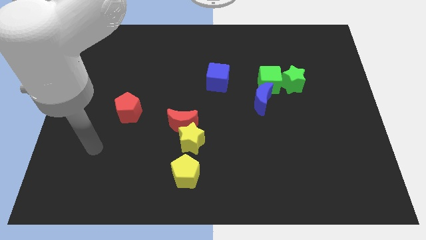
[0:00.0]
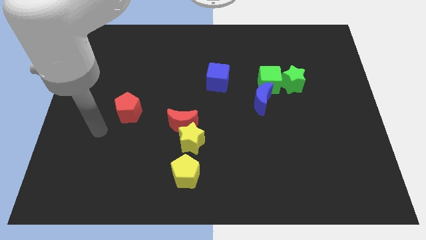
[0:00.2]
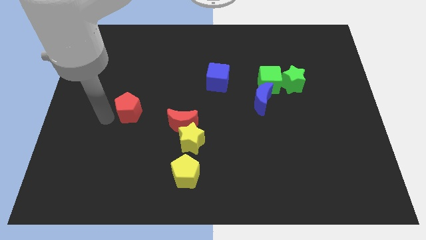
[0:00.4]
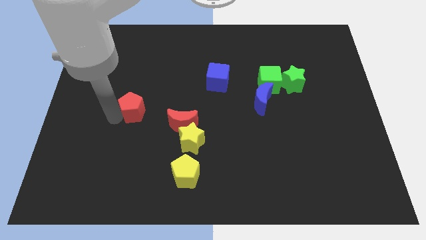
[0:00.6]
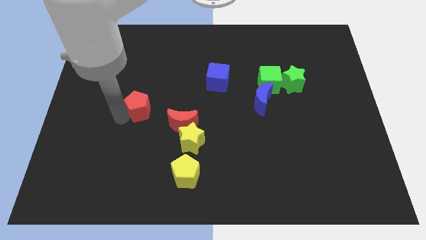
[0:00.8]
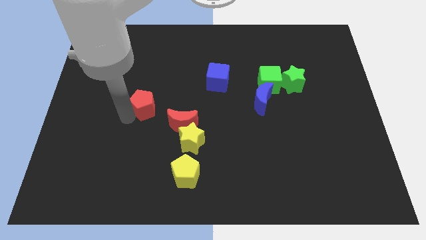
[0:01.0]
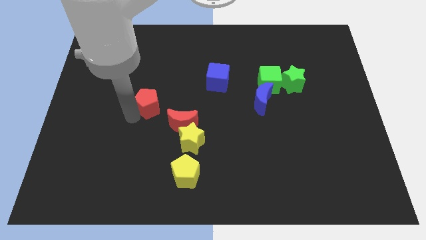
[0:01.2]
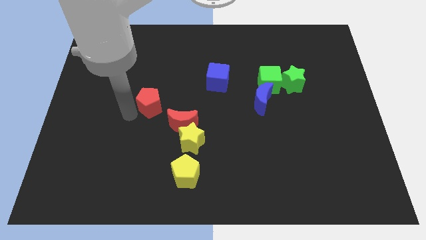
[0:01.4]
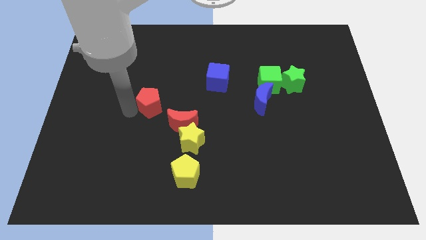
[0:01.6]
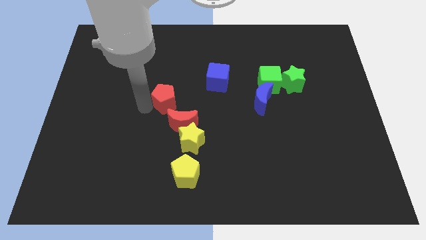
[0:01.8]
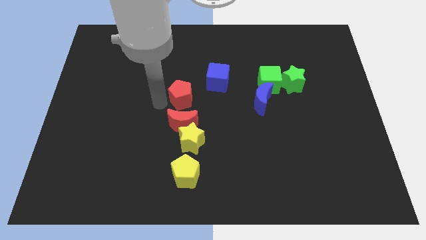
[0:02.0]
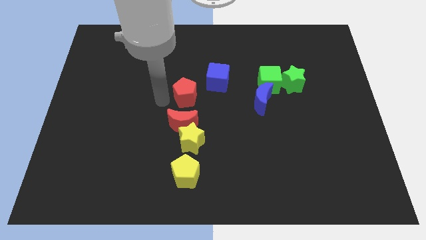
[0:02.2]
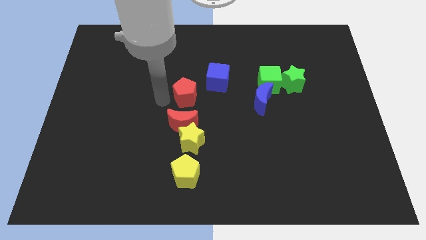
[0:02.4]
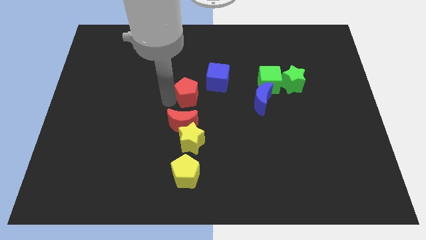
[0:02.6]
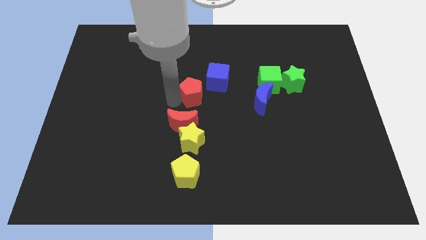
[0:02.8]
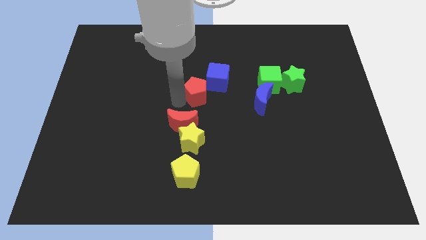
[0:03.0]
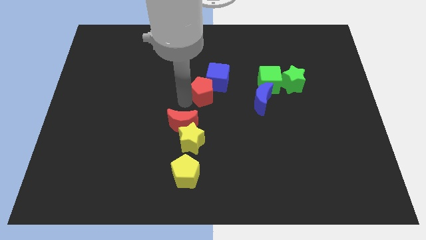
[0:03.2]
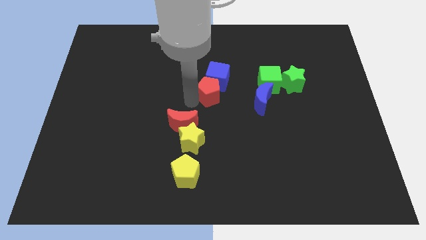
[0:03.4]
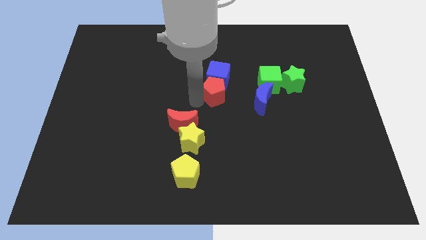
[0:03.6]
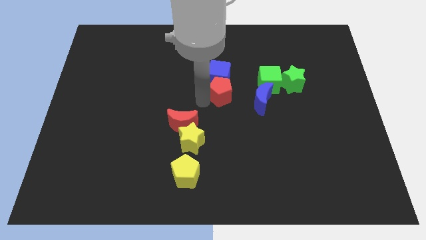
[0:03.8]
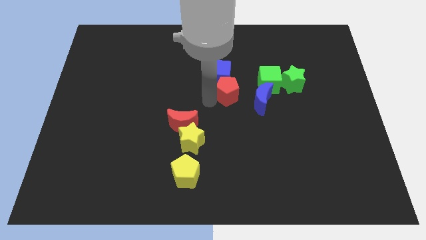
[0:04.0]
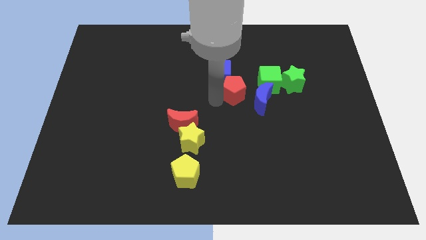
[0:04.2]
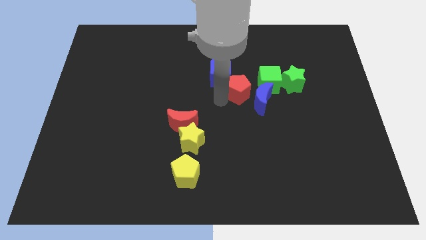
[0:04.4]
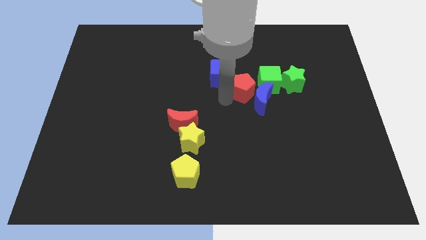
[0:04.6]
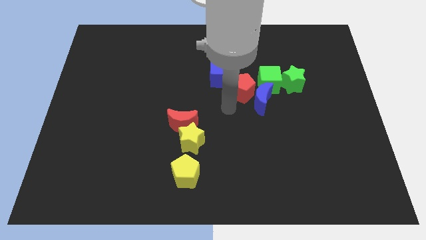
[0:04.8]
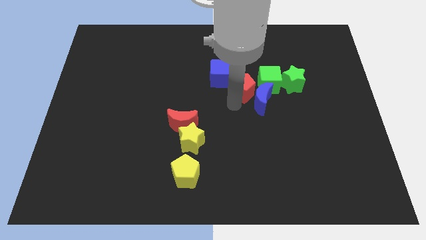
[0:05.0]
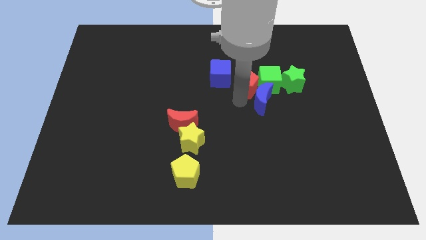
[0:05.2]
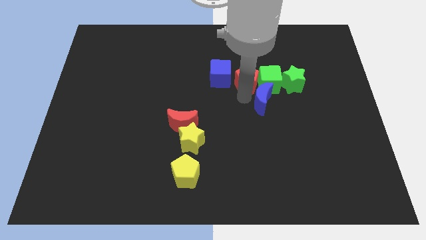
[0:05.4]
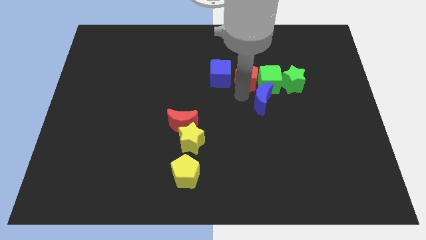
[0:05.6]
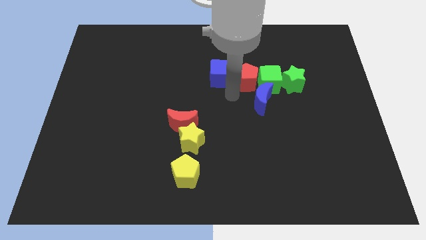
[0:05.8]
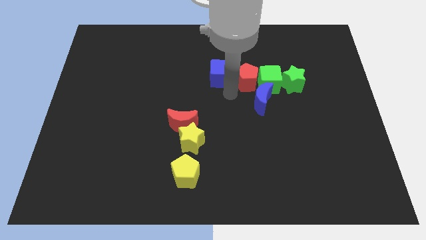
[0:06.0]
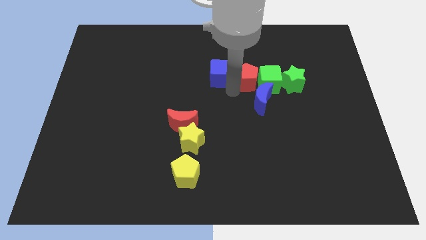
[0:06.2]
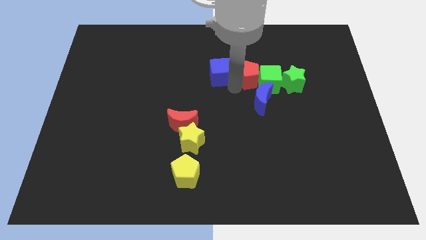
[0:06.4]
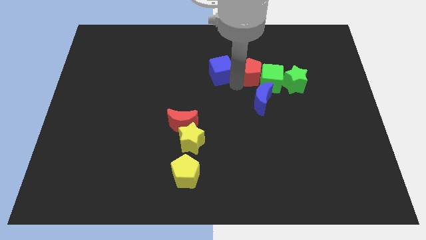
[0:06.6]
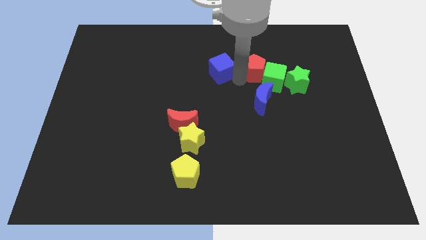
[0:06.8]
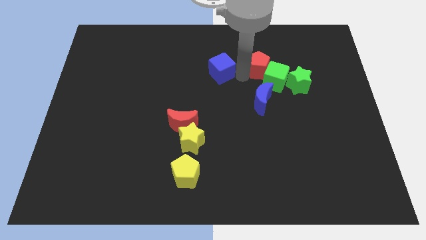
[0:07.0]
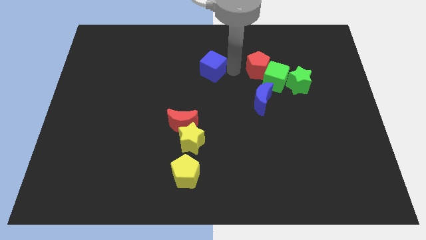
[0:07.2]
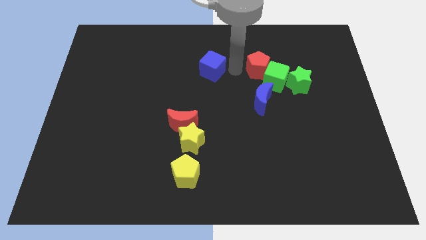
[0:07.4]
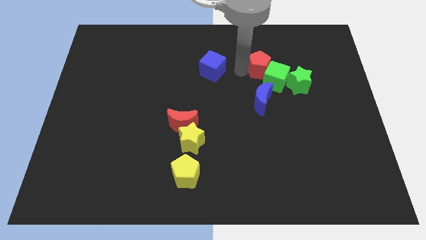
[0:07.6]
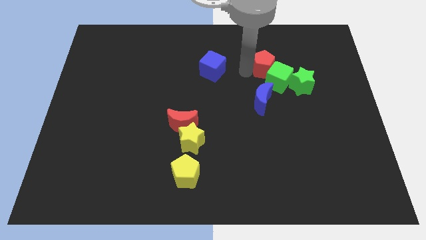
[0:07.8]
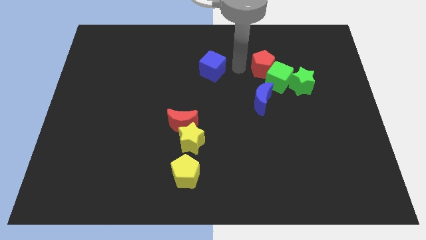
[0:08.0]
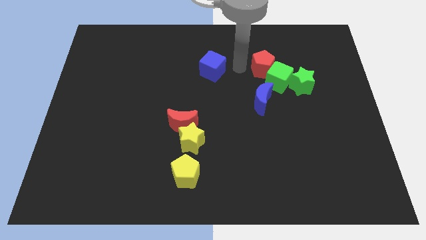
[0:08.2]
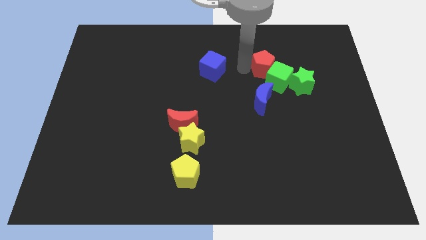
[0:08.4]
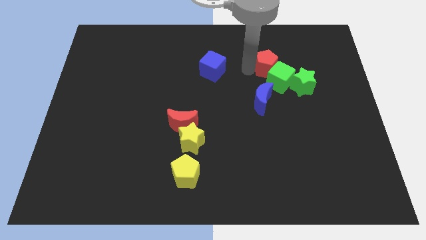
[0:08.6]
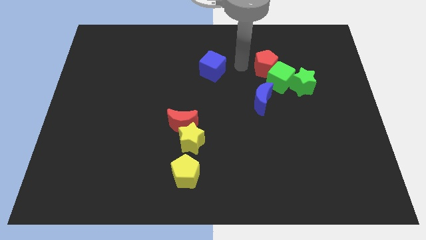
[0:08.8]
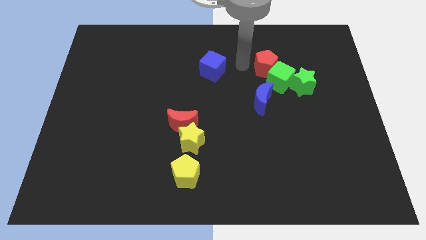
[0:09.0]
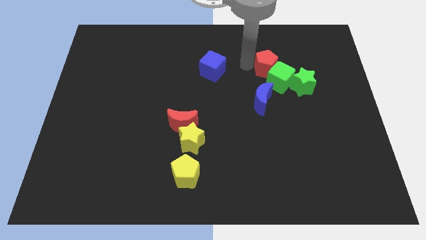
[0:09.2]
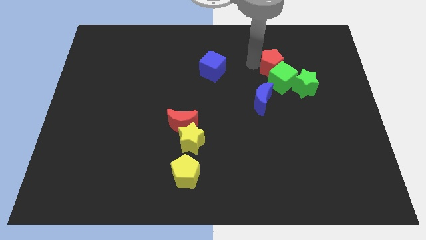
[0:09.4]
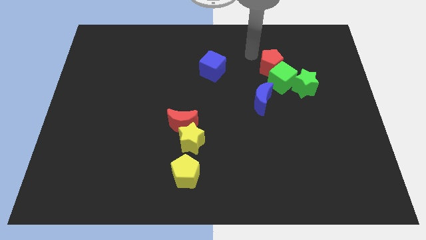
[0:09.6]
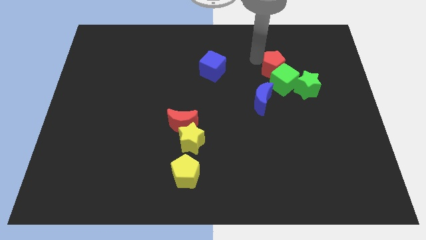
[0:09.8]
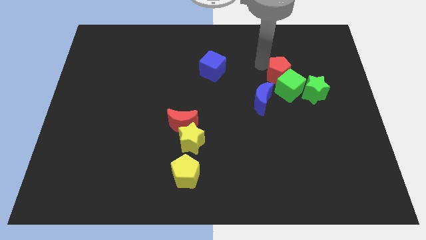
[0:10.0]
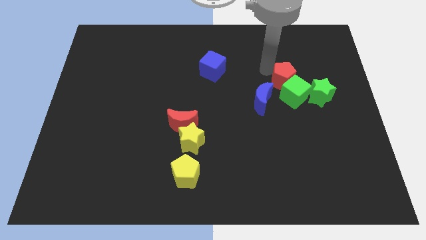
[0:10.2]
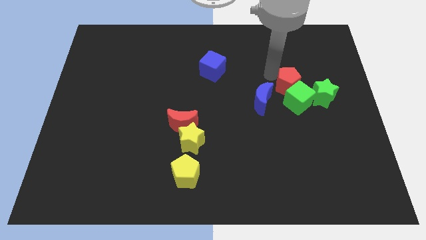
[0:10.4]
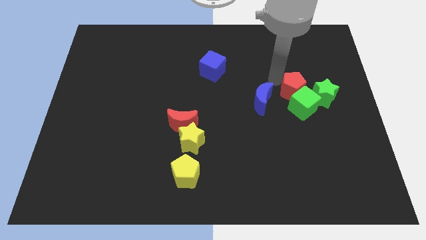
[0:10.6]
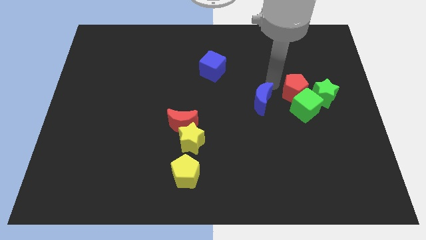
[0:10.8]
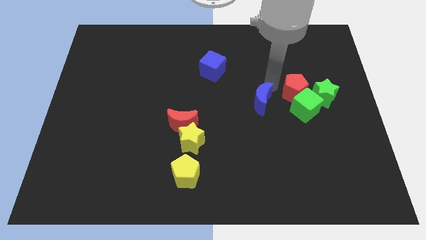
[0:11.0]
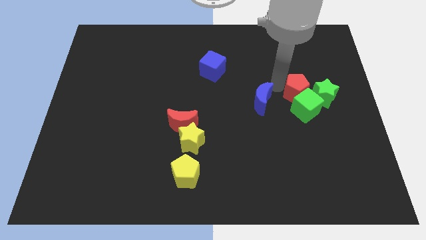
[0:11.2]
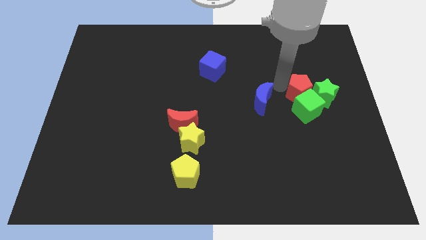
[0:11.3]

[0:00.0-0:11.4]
push the red pentagon close to the green star

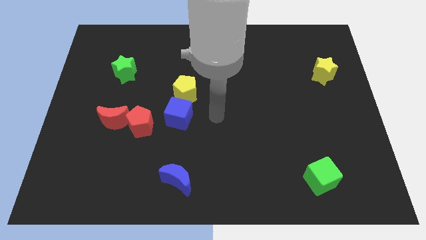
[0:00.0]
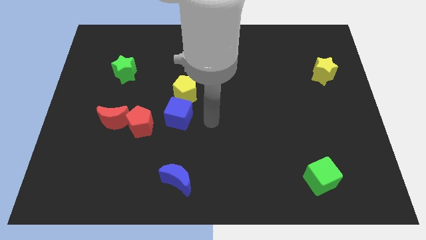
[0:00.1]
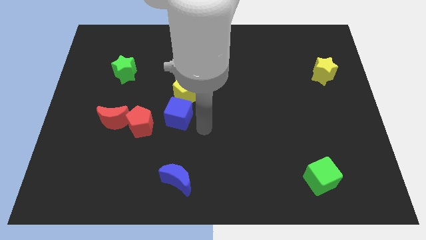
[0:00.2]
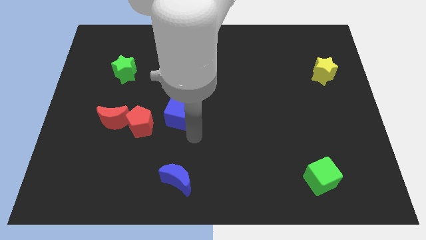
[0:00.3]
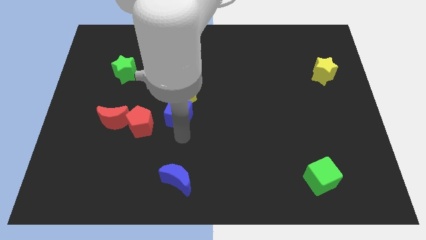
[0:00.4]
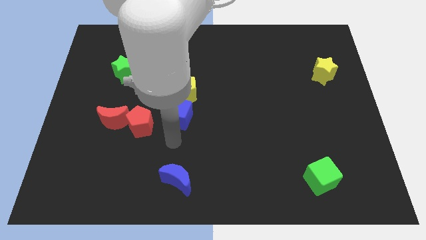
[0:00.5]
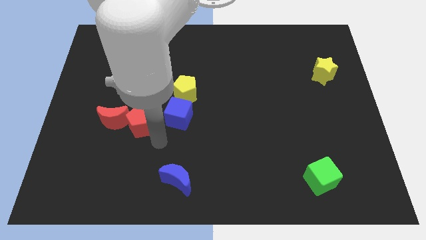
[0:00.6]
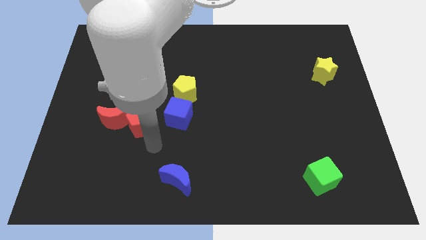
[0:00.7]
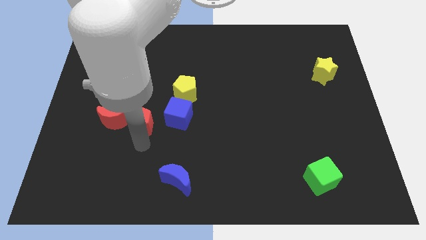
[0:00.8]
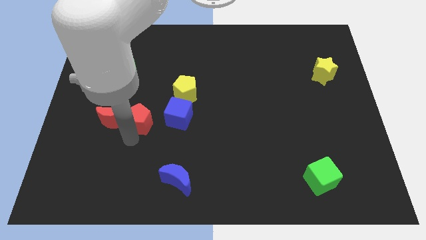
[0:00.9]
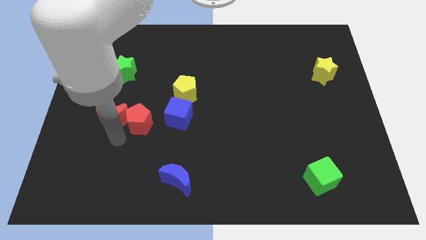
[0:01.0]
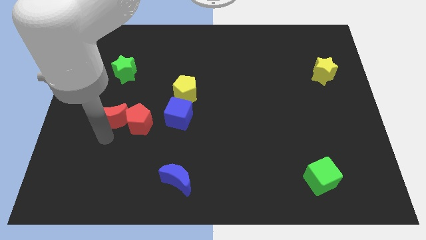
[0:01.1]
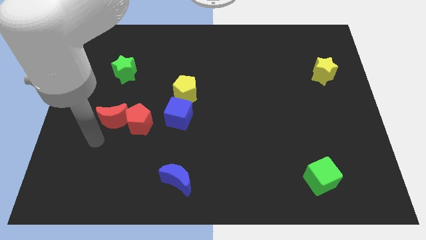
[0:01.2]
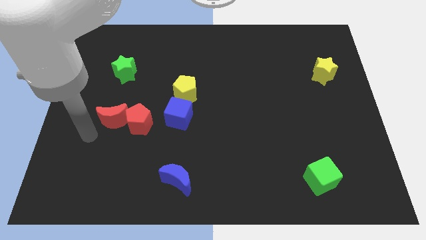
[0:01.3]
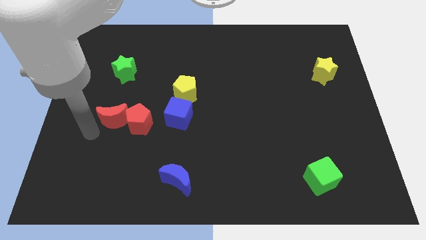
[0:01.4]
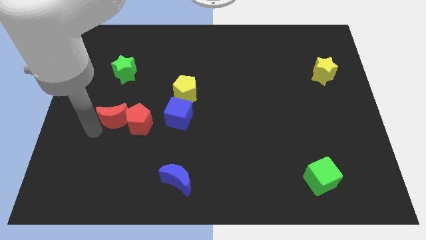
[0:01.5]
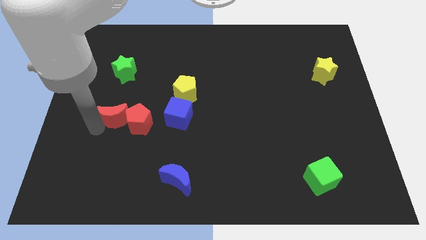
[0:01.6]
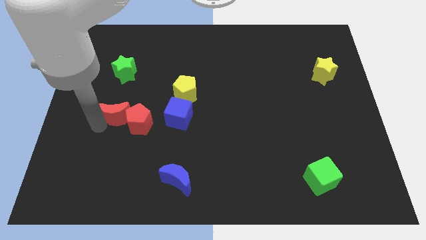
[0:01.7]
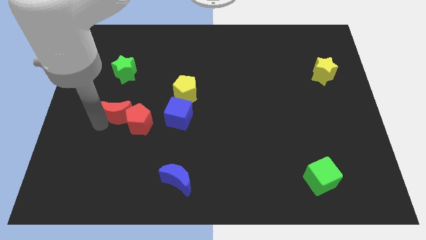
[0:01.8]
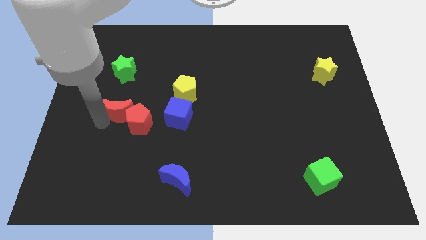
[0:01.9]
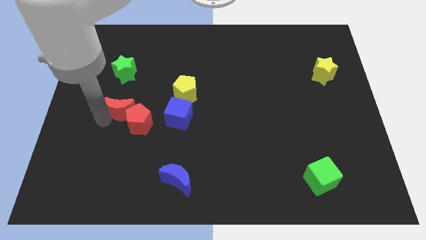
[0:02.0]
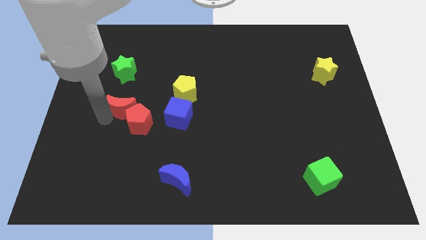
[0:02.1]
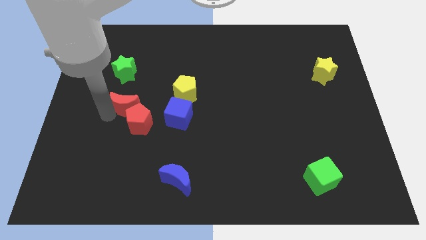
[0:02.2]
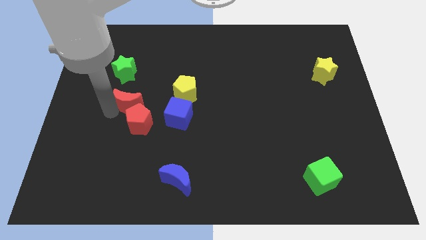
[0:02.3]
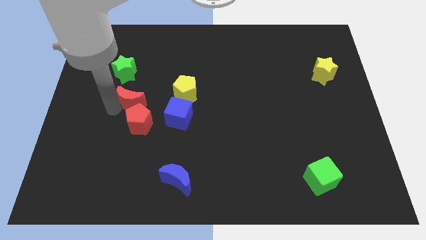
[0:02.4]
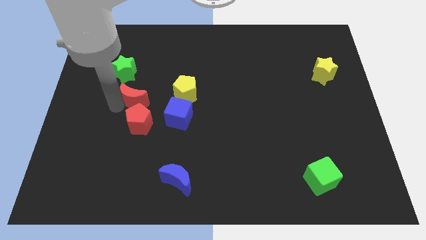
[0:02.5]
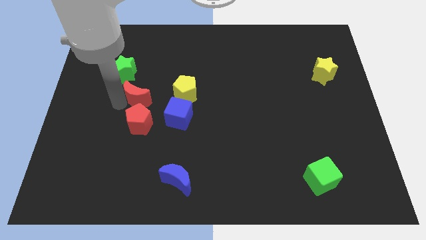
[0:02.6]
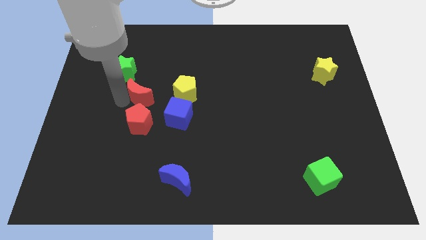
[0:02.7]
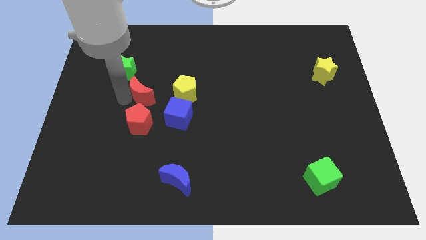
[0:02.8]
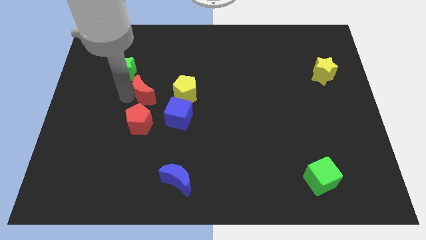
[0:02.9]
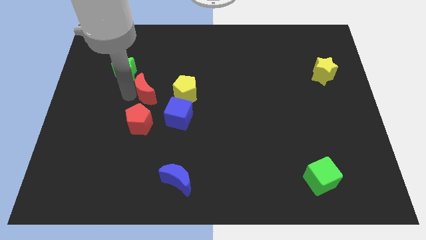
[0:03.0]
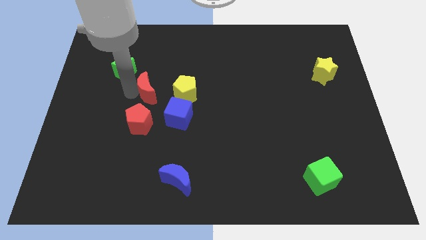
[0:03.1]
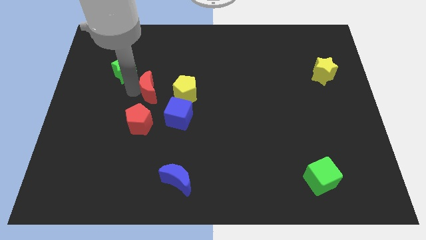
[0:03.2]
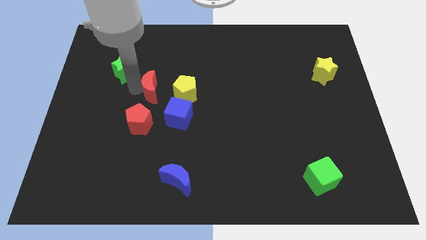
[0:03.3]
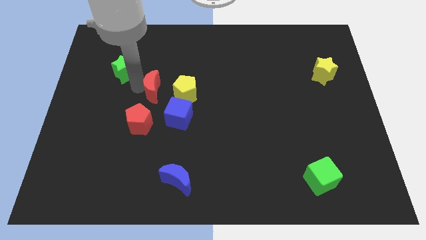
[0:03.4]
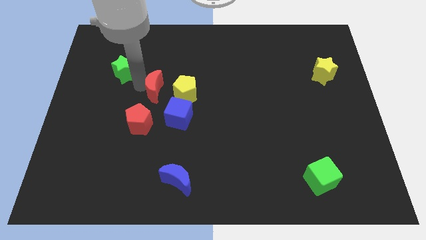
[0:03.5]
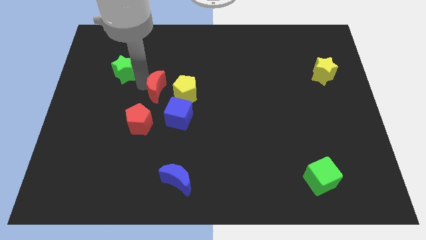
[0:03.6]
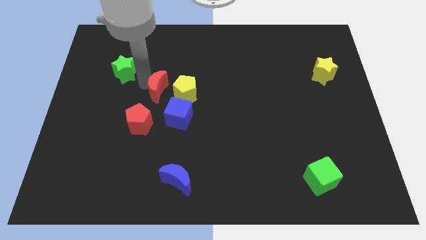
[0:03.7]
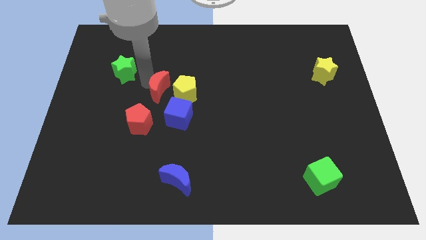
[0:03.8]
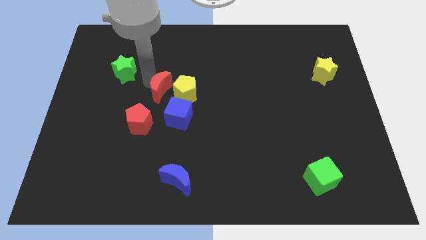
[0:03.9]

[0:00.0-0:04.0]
slide the red moon close to the yellow pentagon
